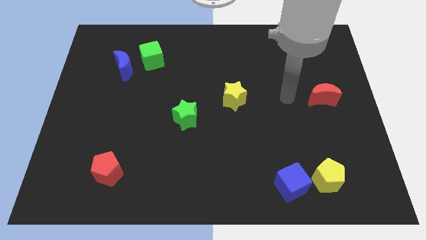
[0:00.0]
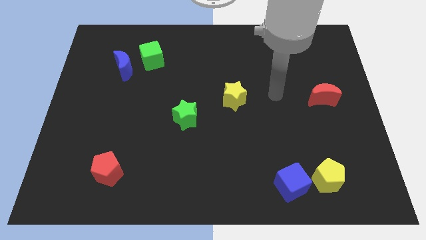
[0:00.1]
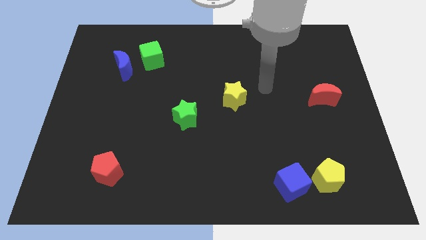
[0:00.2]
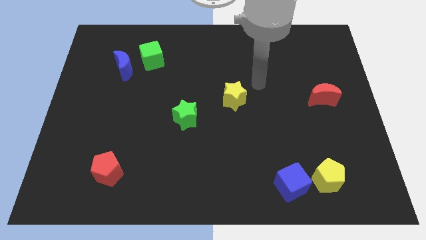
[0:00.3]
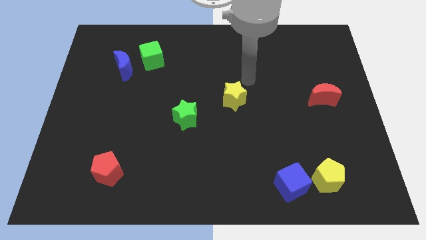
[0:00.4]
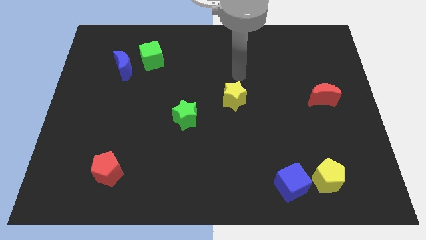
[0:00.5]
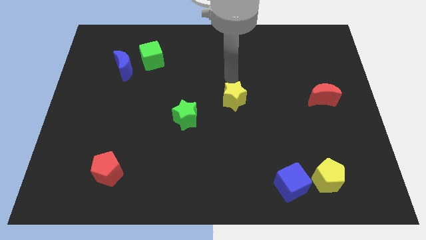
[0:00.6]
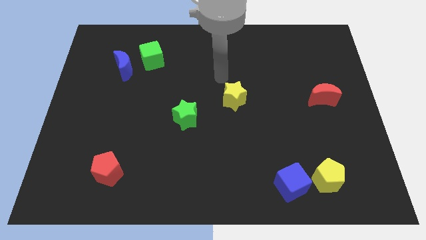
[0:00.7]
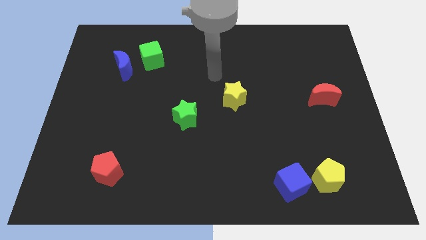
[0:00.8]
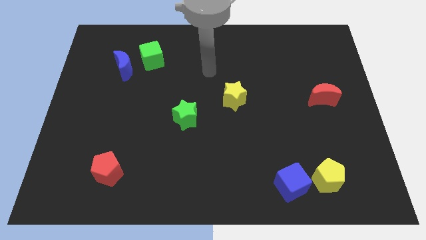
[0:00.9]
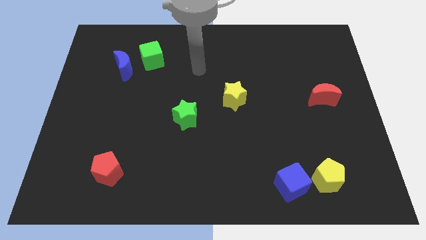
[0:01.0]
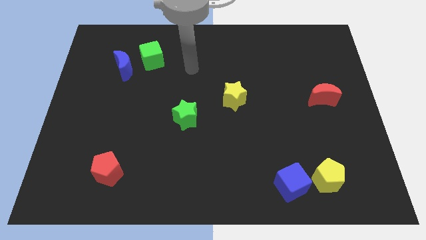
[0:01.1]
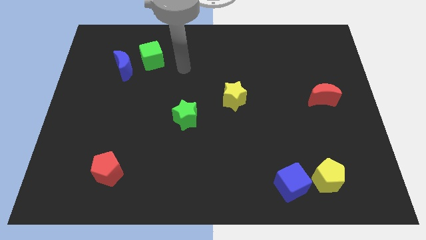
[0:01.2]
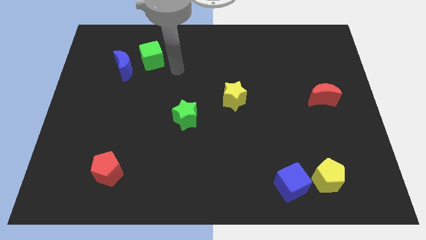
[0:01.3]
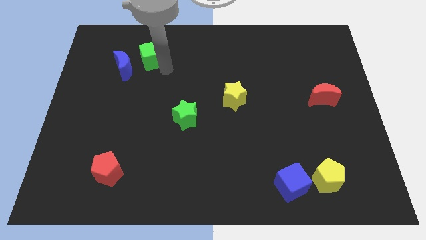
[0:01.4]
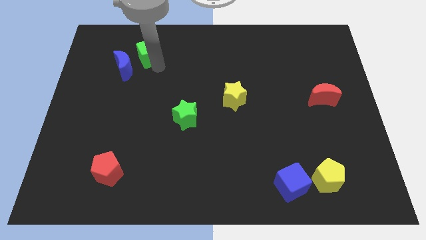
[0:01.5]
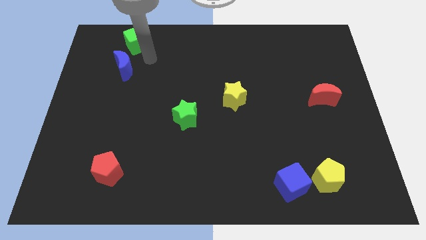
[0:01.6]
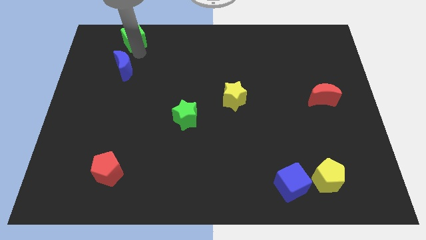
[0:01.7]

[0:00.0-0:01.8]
move the blue moon away from the green cube

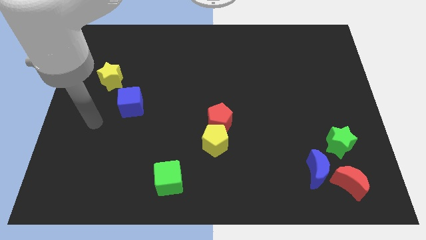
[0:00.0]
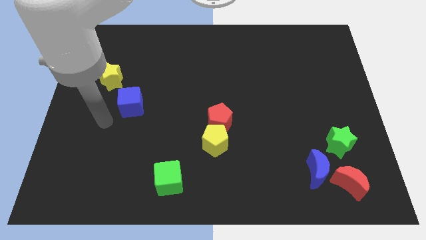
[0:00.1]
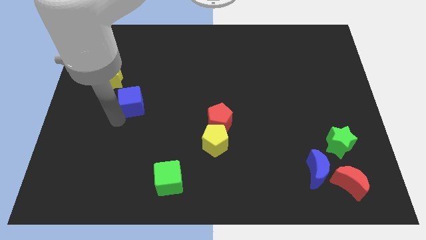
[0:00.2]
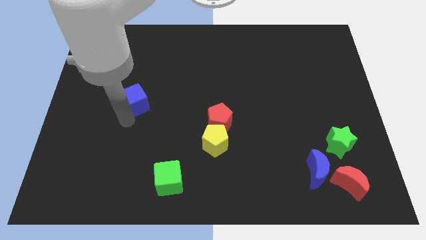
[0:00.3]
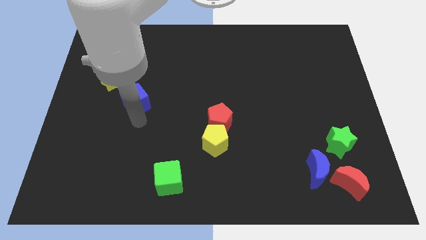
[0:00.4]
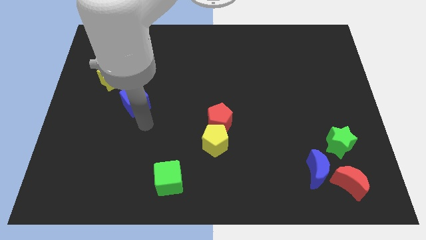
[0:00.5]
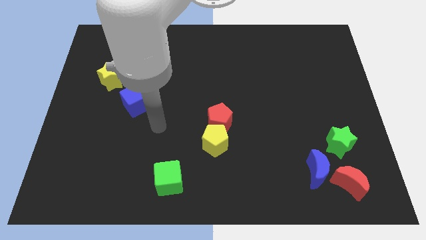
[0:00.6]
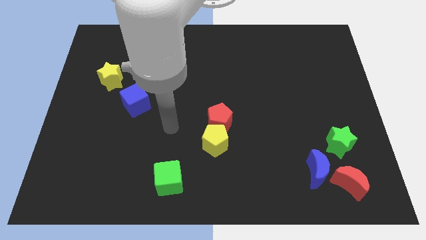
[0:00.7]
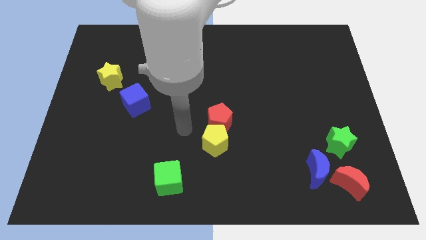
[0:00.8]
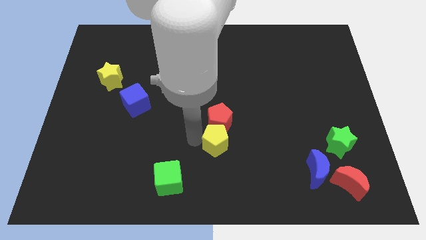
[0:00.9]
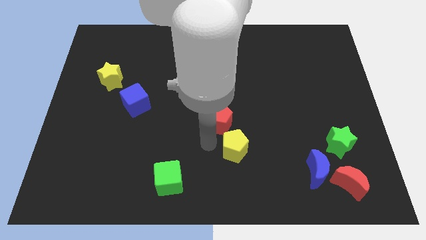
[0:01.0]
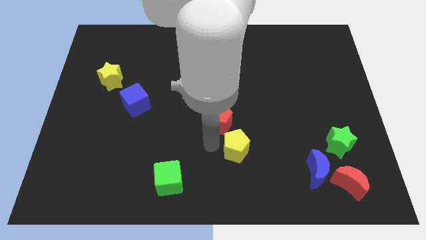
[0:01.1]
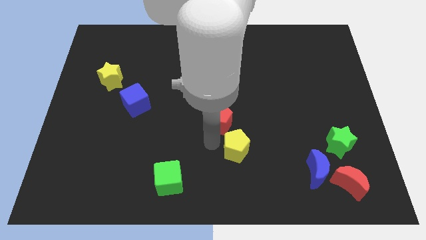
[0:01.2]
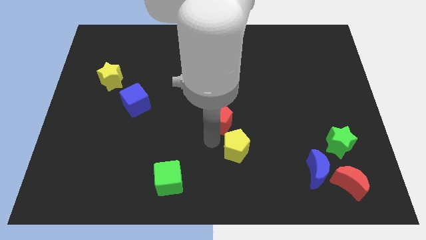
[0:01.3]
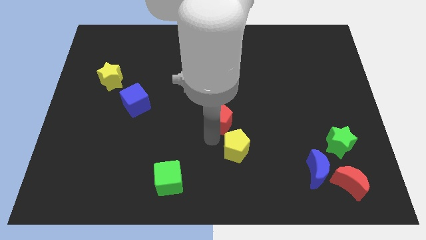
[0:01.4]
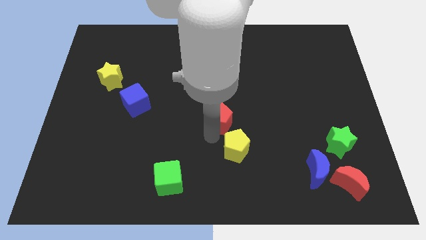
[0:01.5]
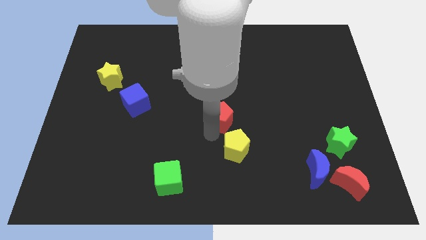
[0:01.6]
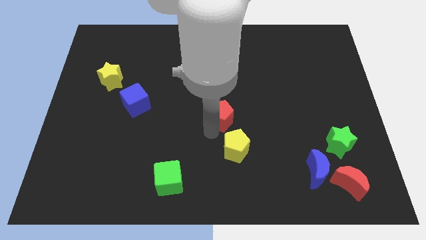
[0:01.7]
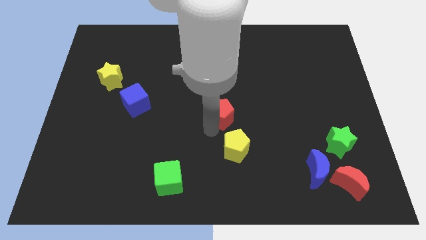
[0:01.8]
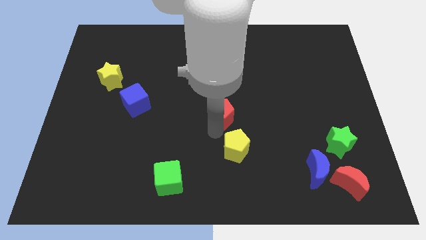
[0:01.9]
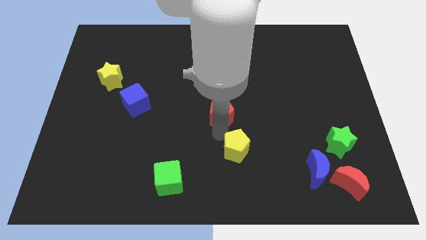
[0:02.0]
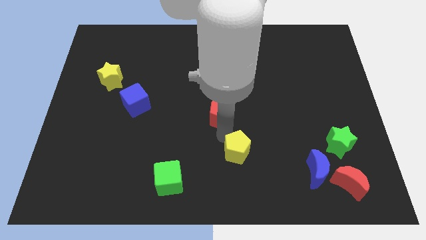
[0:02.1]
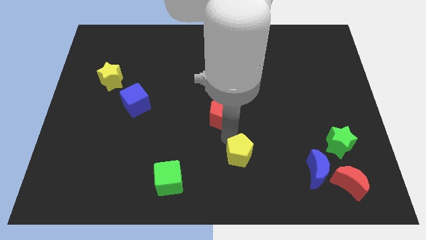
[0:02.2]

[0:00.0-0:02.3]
pull the red pentagon apart from the yellow pentagon

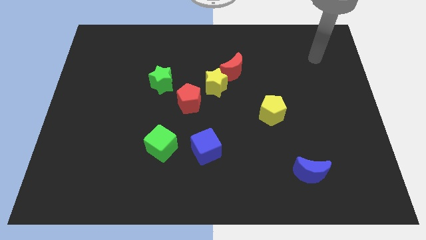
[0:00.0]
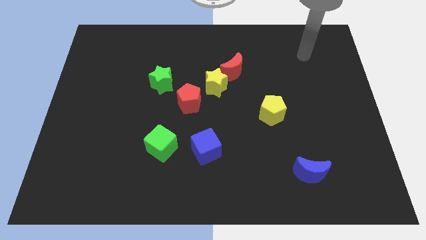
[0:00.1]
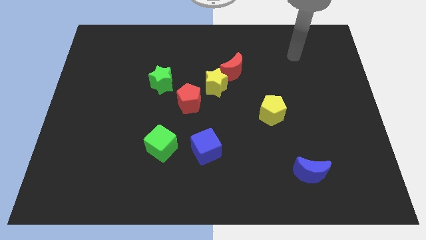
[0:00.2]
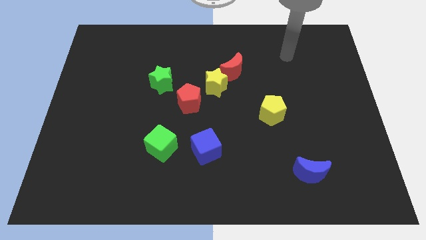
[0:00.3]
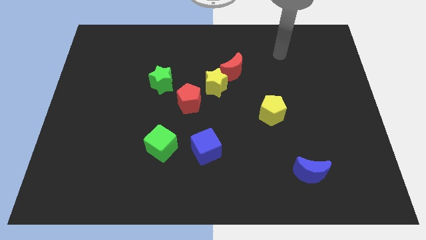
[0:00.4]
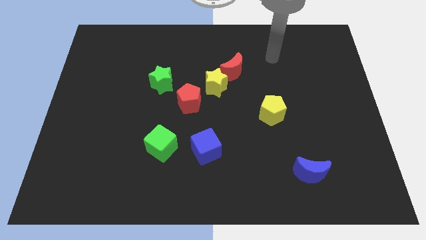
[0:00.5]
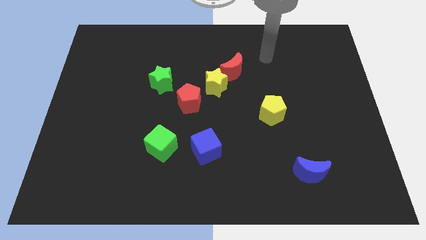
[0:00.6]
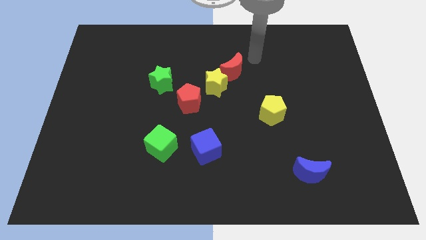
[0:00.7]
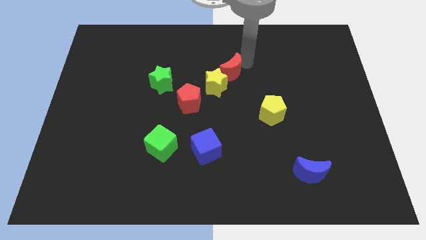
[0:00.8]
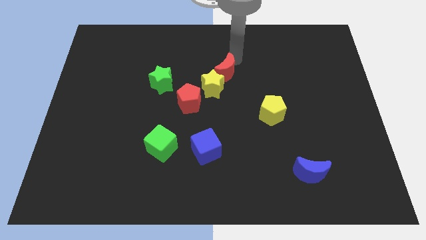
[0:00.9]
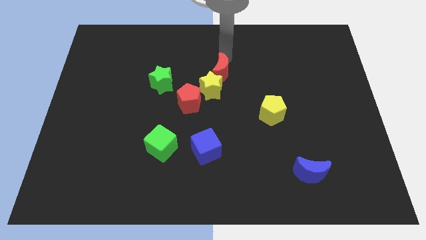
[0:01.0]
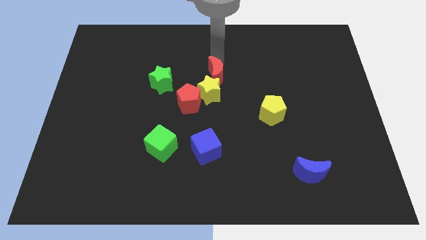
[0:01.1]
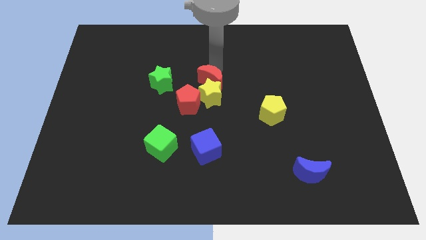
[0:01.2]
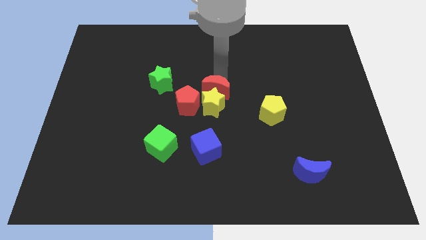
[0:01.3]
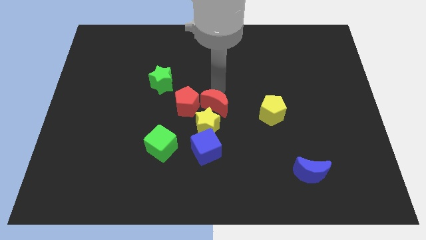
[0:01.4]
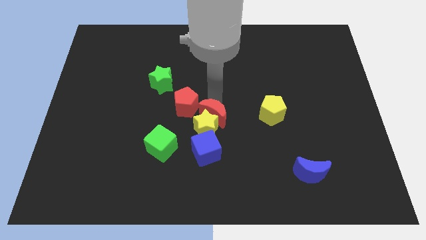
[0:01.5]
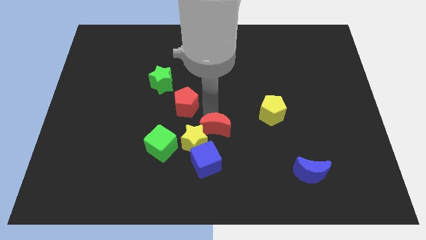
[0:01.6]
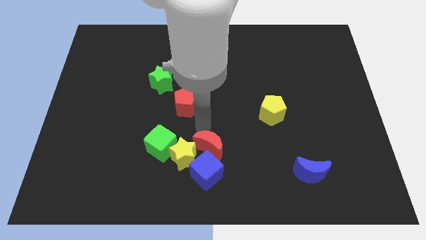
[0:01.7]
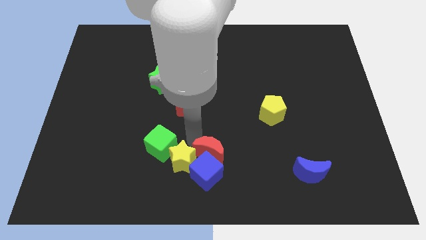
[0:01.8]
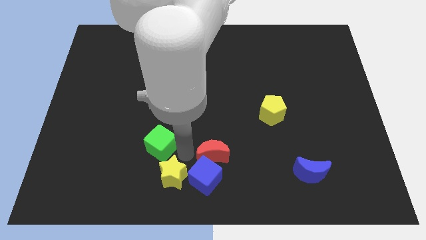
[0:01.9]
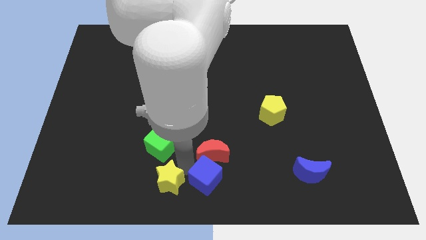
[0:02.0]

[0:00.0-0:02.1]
separate the red moon from the yellow star

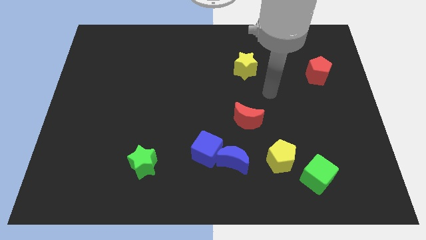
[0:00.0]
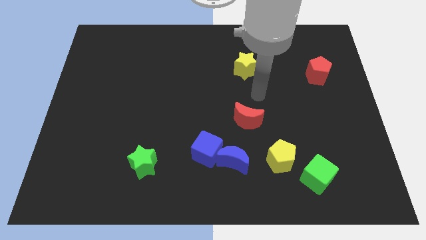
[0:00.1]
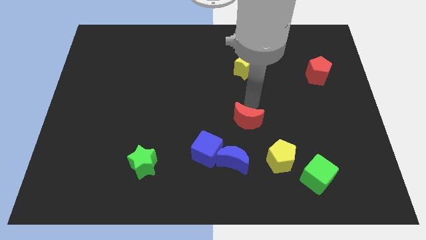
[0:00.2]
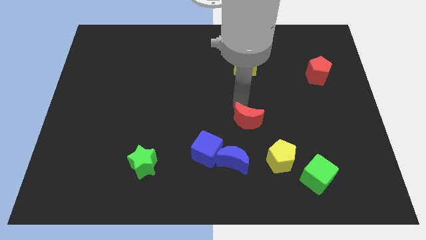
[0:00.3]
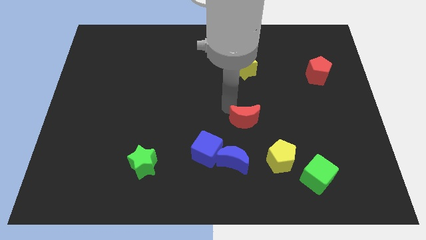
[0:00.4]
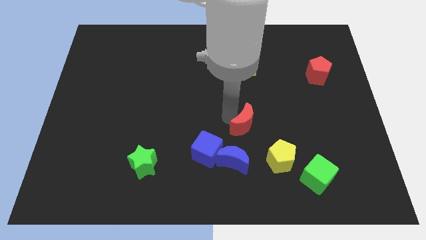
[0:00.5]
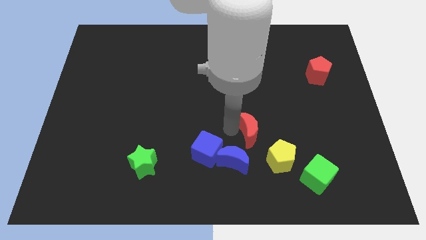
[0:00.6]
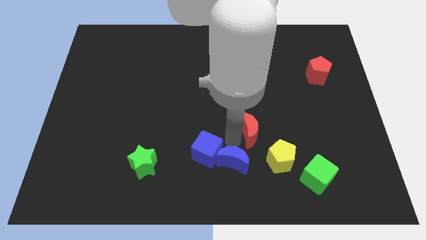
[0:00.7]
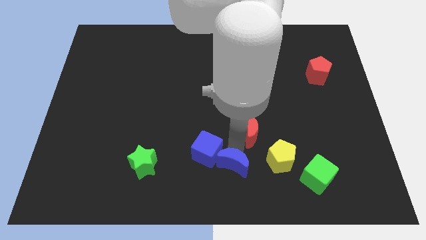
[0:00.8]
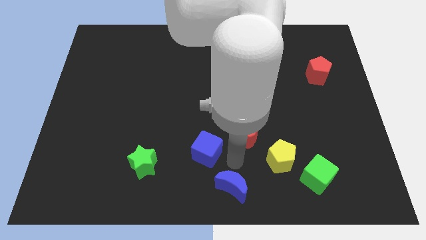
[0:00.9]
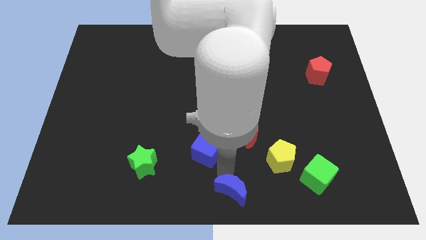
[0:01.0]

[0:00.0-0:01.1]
separate the blue cube from the blue moon

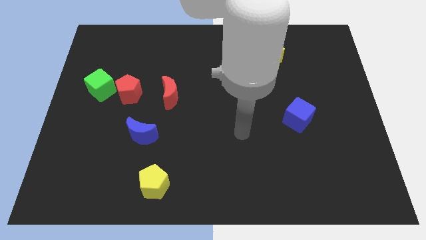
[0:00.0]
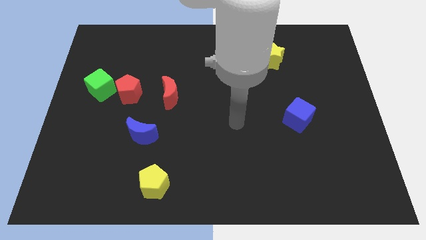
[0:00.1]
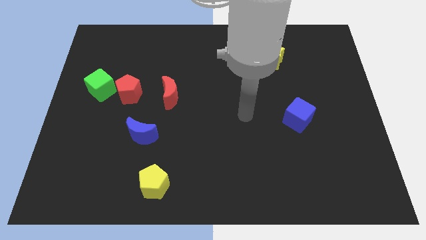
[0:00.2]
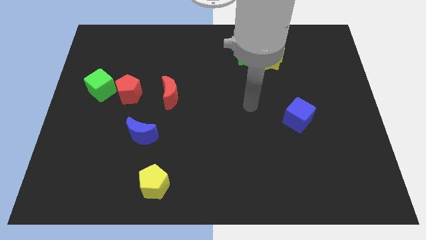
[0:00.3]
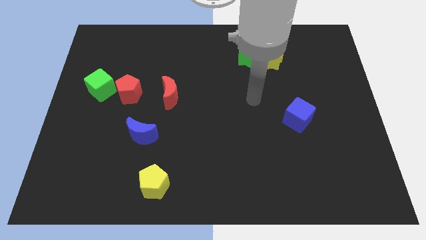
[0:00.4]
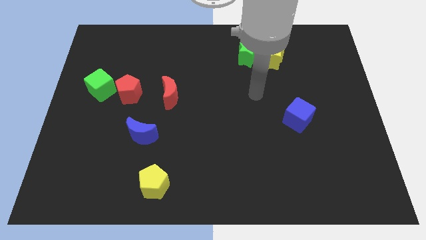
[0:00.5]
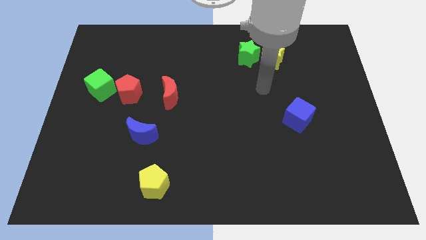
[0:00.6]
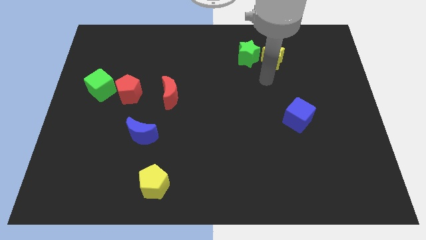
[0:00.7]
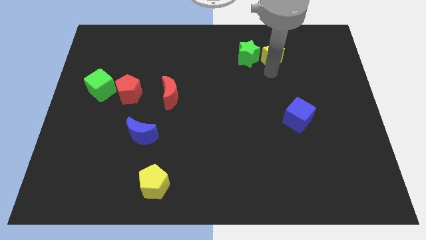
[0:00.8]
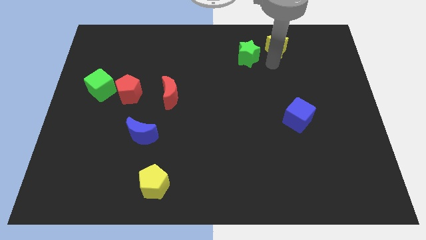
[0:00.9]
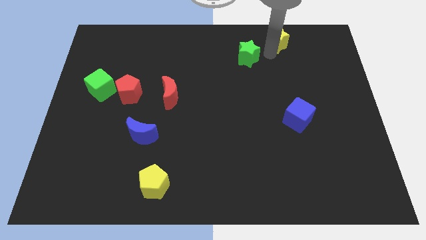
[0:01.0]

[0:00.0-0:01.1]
separate the green star from the yellow star

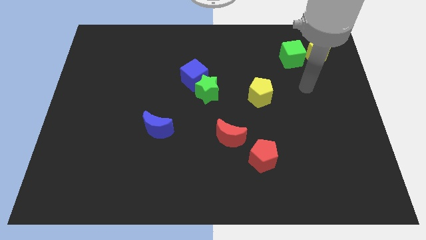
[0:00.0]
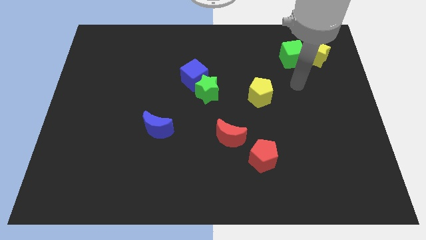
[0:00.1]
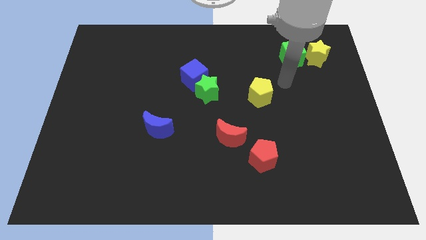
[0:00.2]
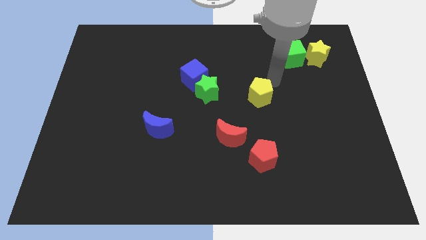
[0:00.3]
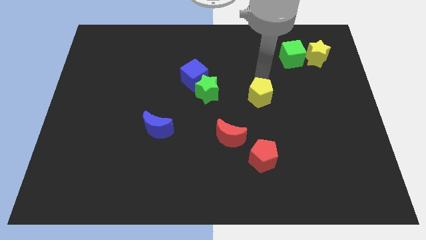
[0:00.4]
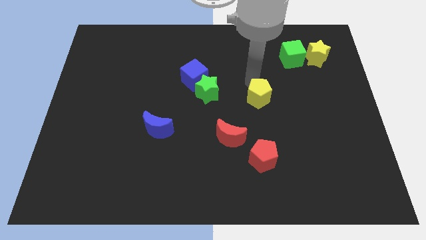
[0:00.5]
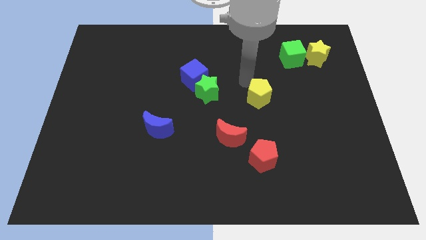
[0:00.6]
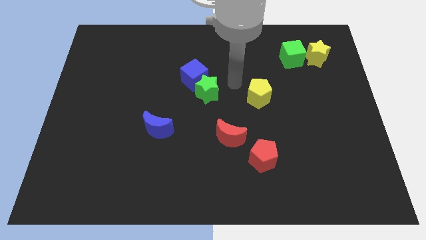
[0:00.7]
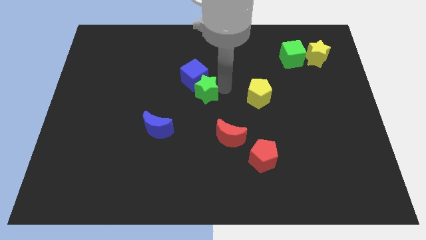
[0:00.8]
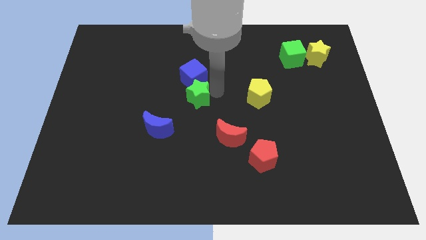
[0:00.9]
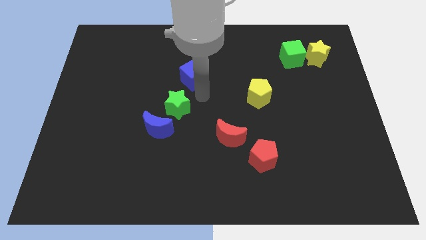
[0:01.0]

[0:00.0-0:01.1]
separate the blue cube from the green star
